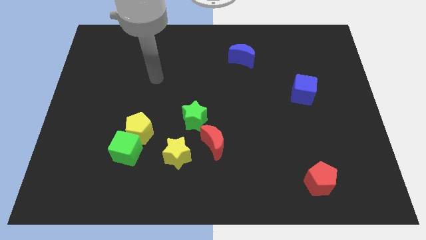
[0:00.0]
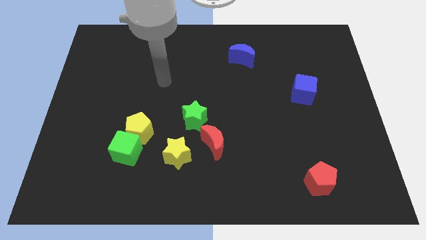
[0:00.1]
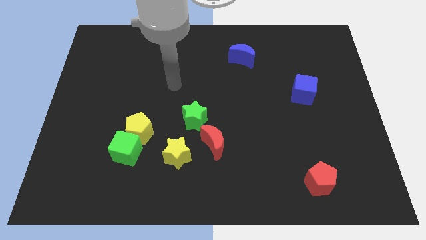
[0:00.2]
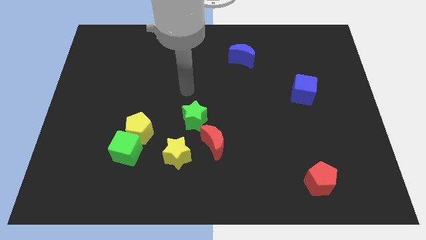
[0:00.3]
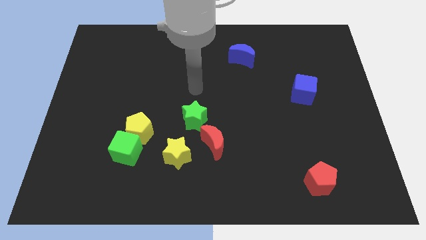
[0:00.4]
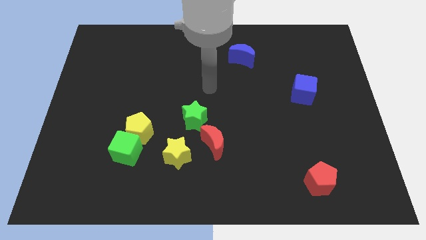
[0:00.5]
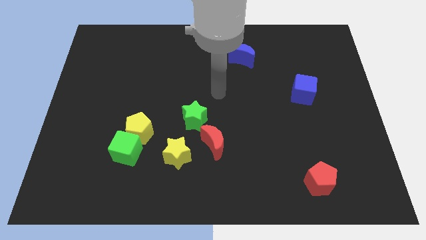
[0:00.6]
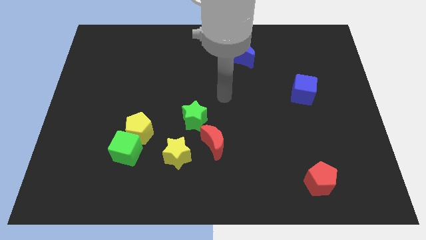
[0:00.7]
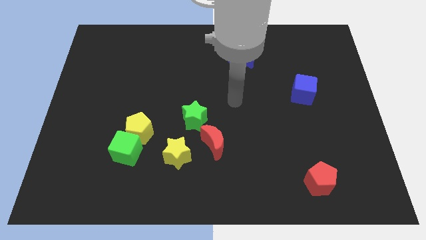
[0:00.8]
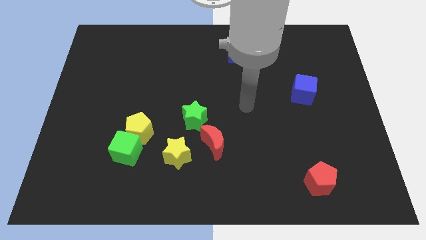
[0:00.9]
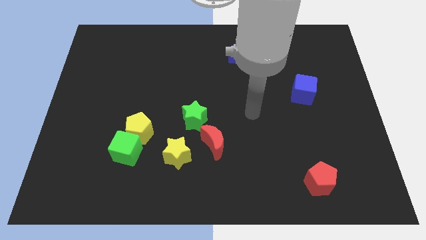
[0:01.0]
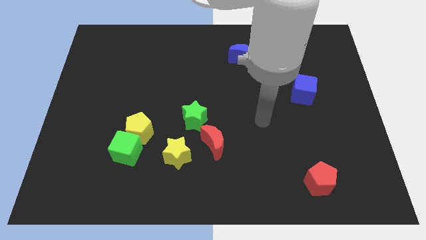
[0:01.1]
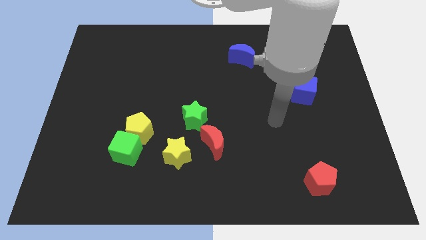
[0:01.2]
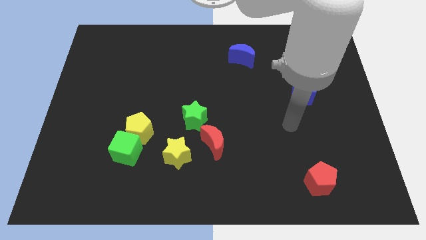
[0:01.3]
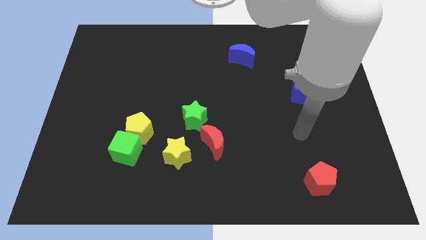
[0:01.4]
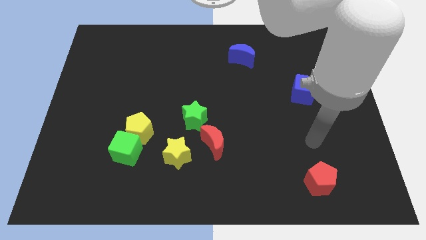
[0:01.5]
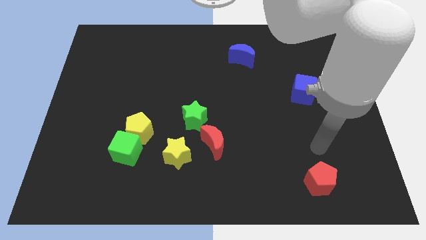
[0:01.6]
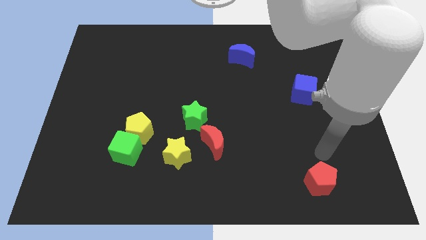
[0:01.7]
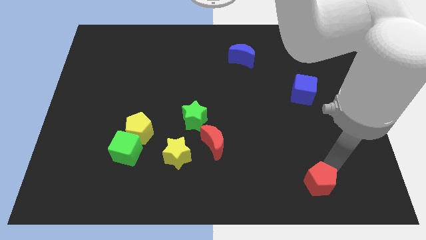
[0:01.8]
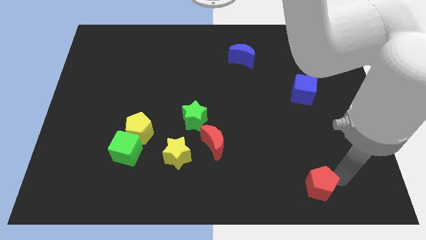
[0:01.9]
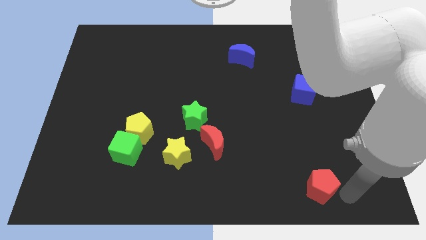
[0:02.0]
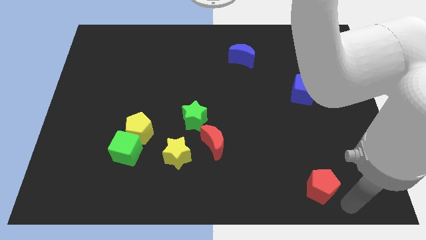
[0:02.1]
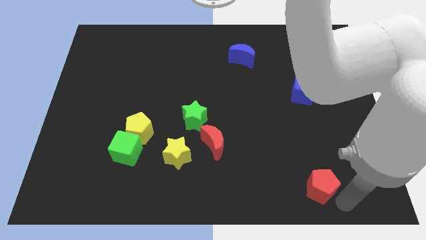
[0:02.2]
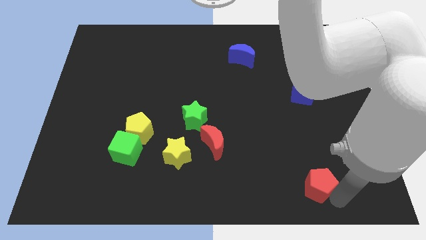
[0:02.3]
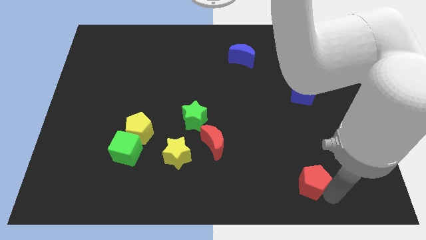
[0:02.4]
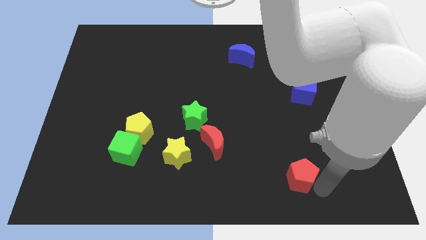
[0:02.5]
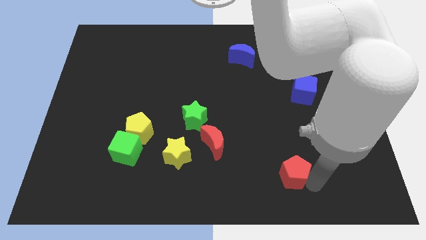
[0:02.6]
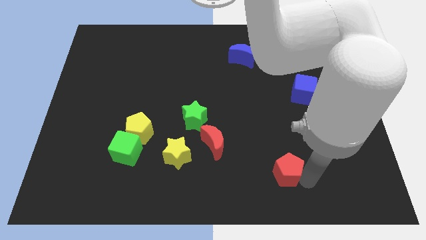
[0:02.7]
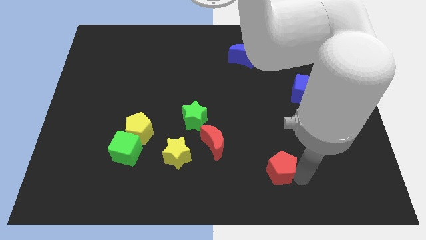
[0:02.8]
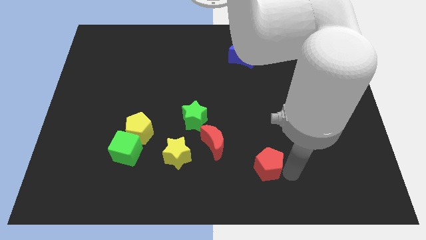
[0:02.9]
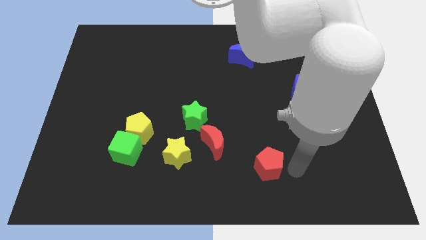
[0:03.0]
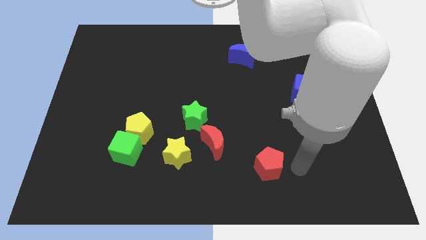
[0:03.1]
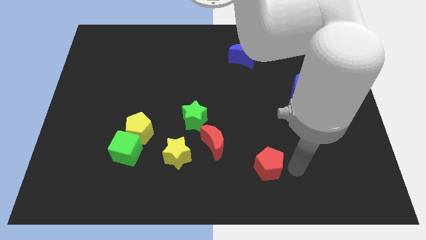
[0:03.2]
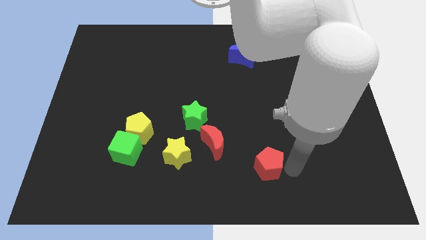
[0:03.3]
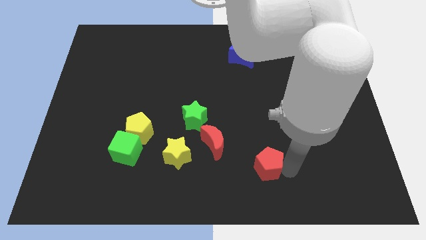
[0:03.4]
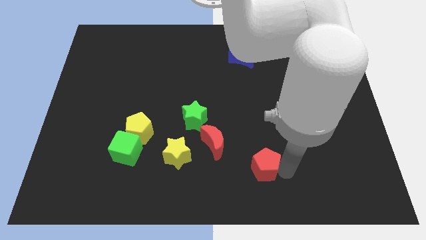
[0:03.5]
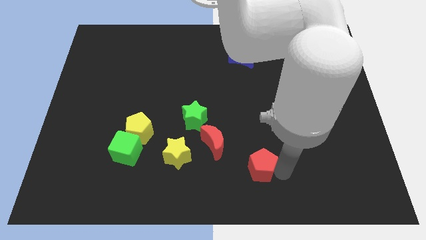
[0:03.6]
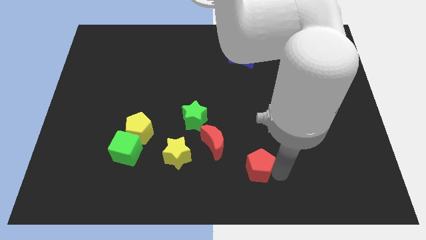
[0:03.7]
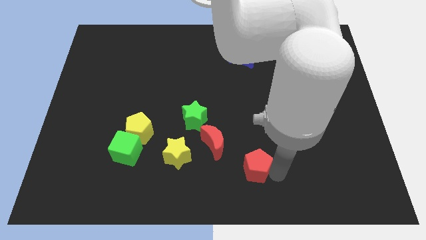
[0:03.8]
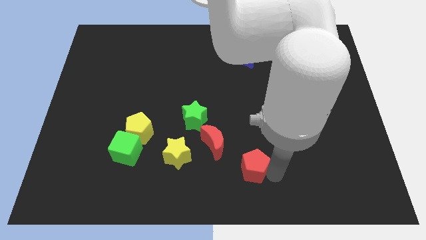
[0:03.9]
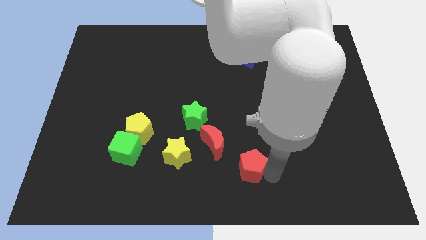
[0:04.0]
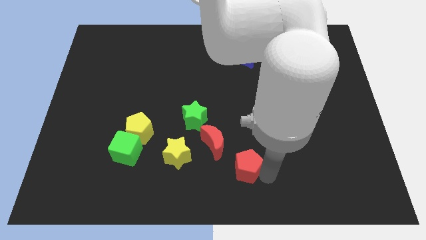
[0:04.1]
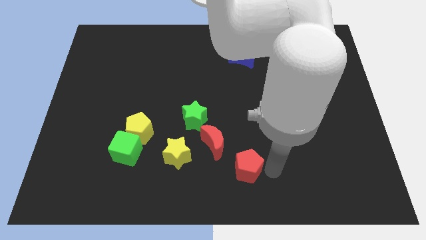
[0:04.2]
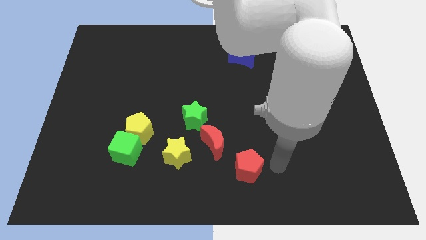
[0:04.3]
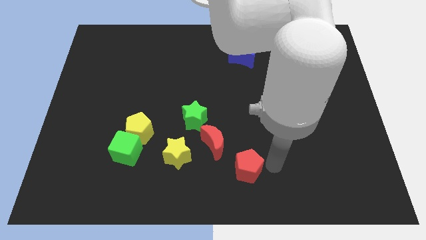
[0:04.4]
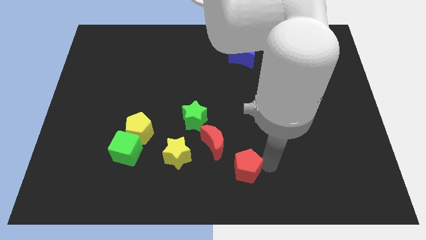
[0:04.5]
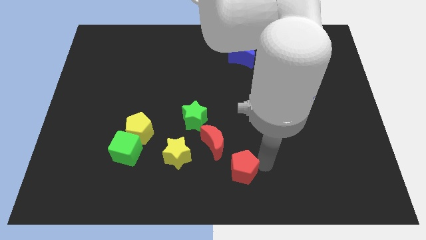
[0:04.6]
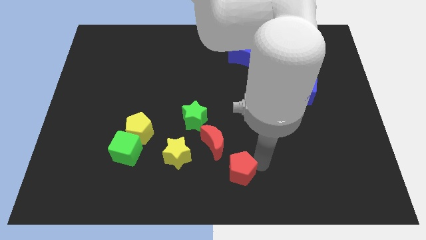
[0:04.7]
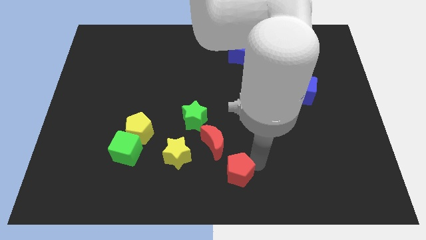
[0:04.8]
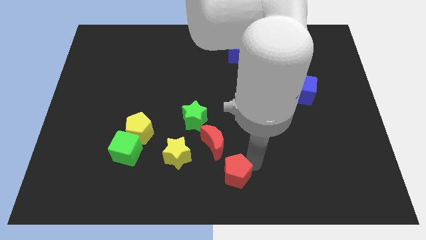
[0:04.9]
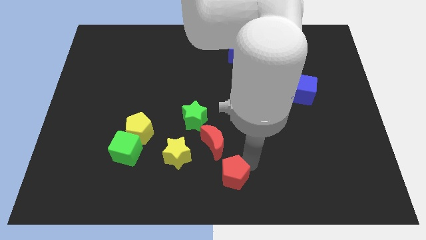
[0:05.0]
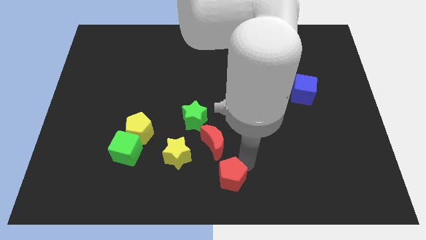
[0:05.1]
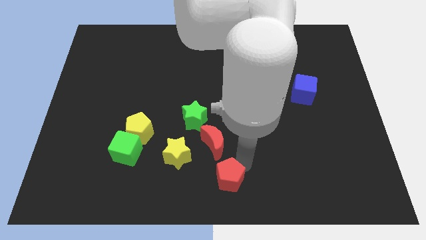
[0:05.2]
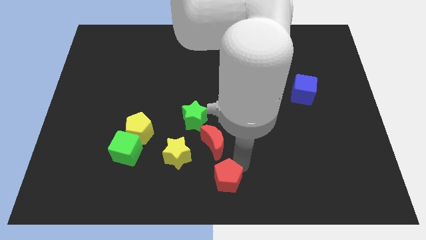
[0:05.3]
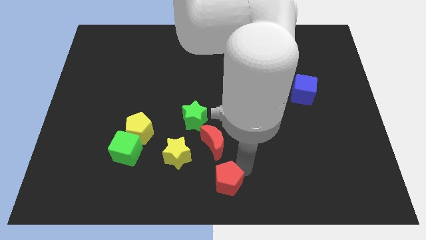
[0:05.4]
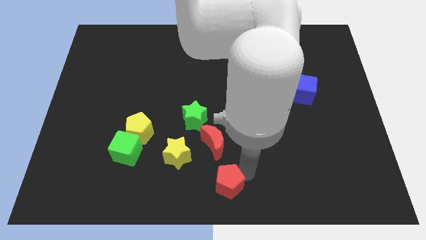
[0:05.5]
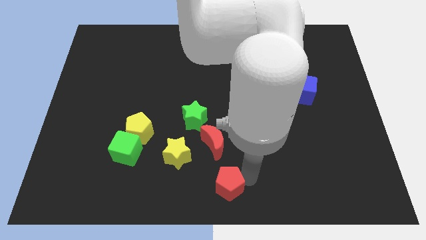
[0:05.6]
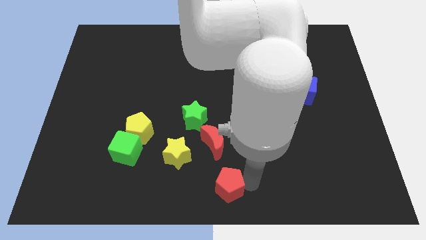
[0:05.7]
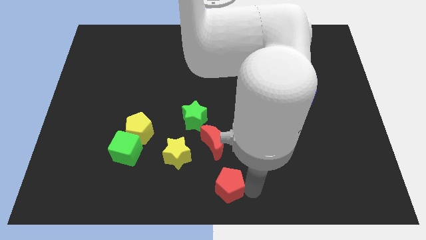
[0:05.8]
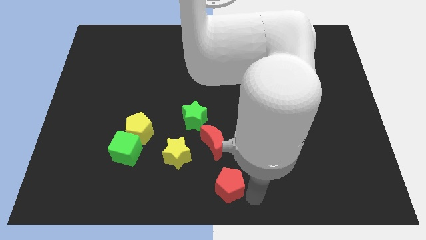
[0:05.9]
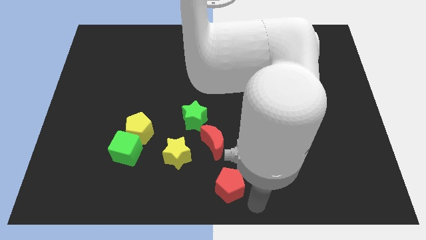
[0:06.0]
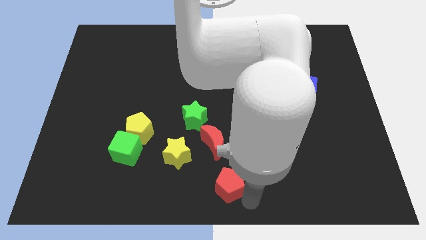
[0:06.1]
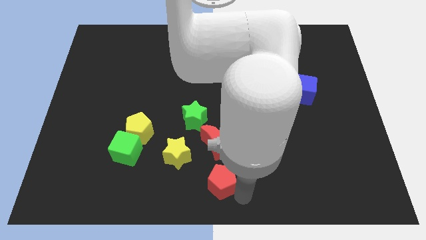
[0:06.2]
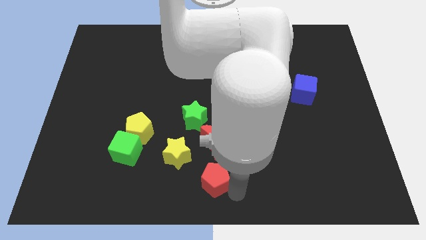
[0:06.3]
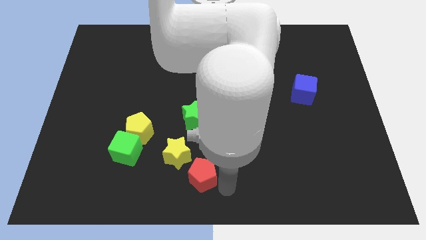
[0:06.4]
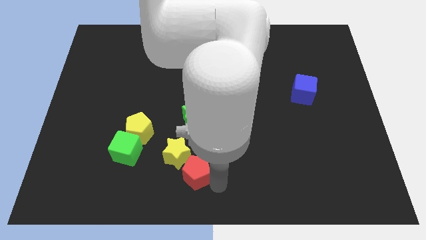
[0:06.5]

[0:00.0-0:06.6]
move the red pentagon close to the yellow star
